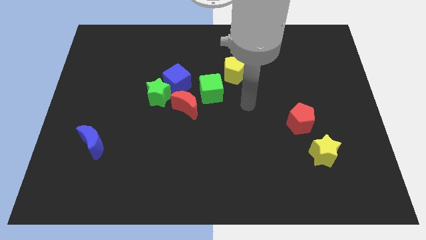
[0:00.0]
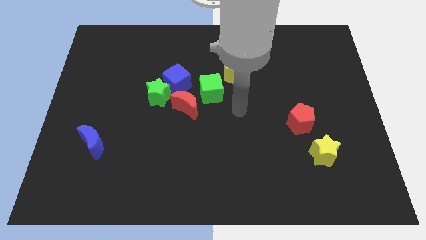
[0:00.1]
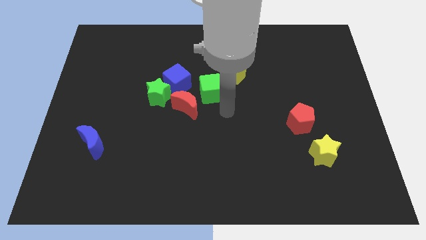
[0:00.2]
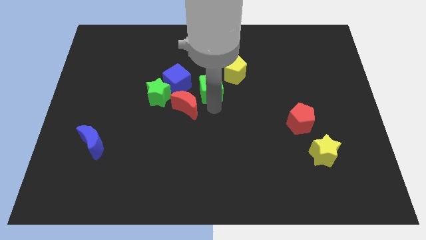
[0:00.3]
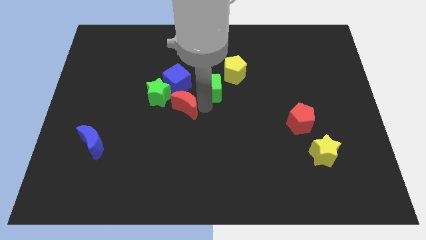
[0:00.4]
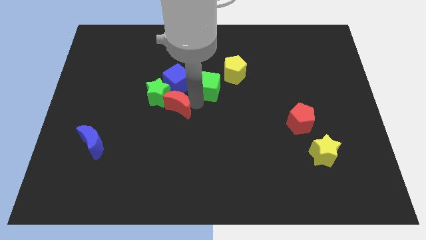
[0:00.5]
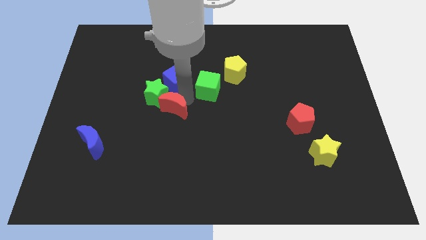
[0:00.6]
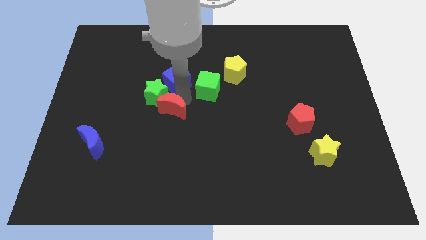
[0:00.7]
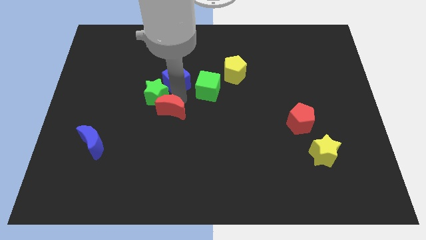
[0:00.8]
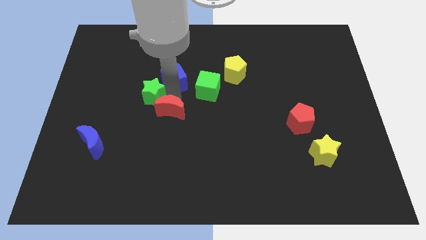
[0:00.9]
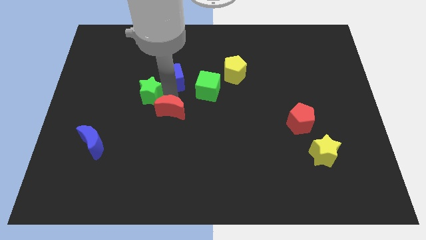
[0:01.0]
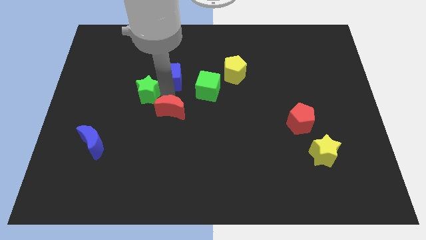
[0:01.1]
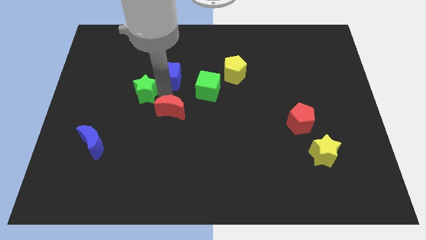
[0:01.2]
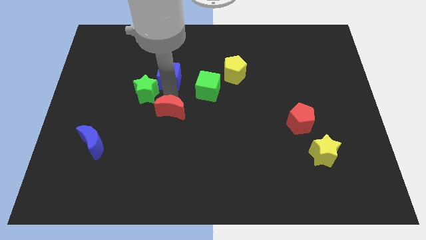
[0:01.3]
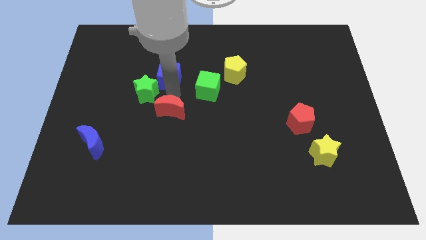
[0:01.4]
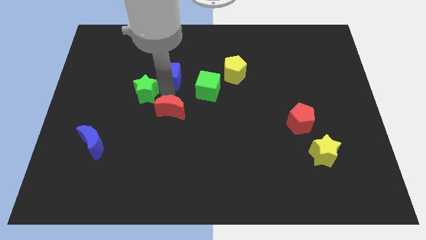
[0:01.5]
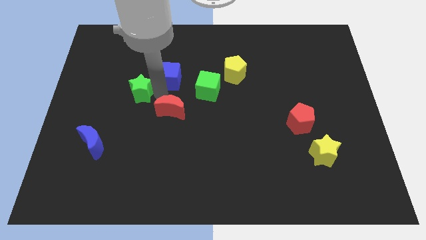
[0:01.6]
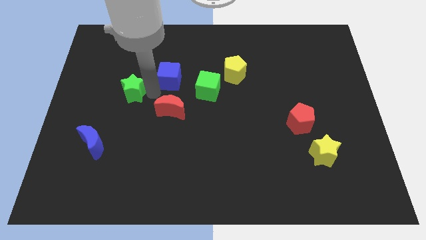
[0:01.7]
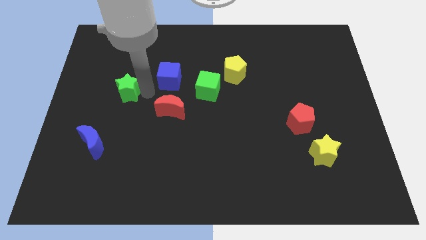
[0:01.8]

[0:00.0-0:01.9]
move the green star away from the blue cube and red moon

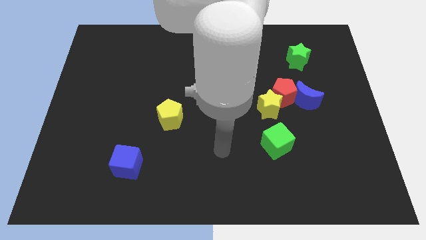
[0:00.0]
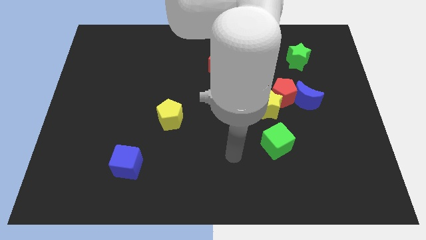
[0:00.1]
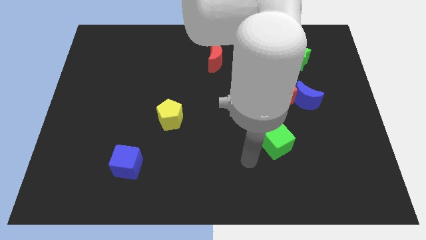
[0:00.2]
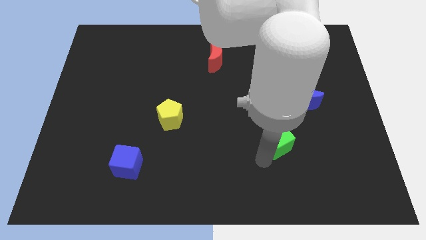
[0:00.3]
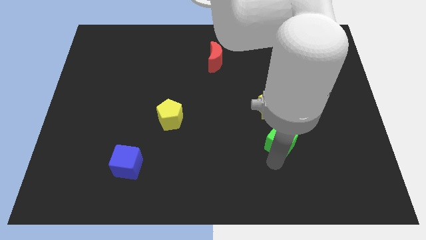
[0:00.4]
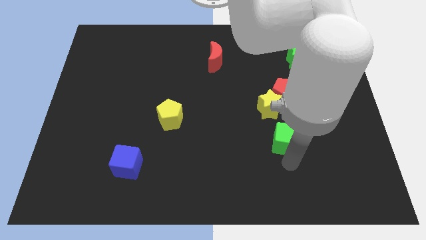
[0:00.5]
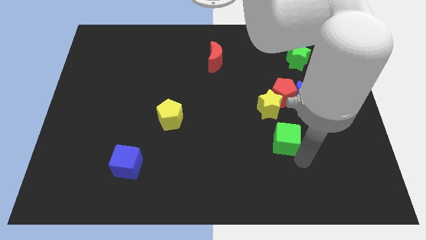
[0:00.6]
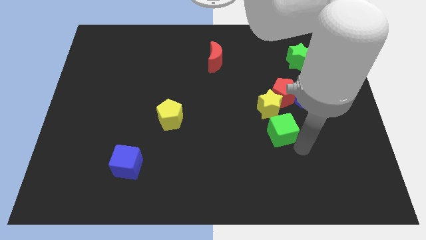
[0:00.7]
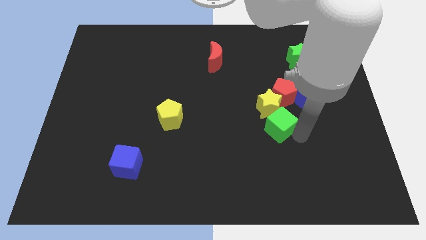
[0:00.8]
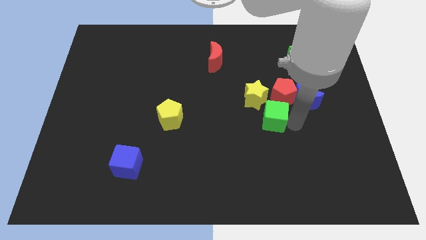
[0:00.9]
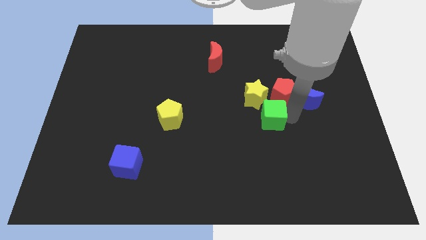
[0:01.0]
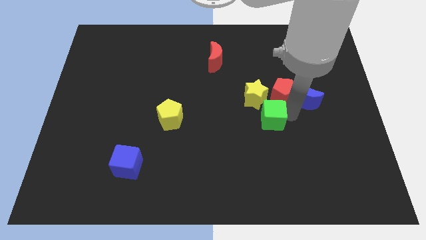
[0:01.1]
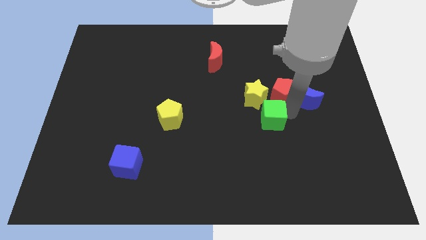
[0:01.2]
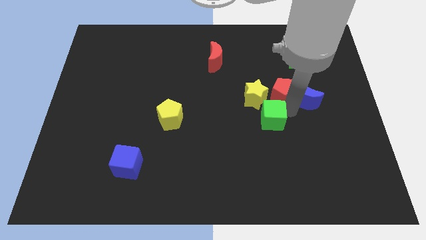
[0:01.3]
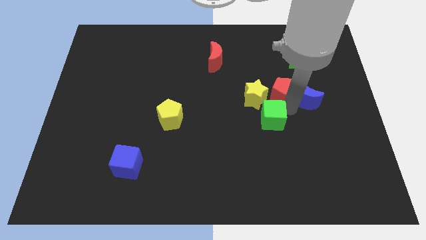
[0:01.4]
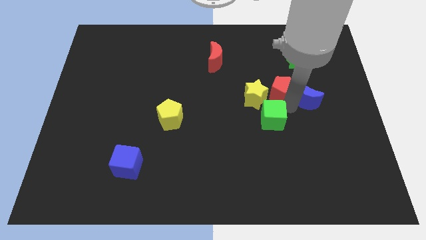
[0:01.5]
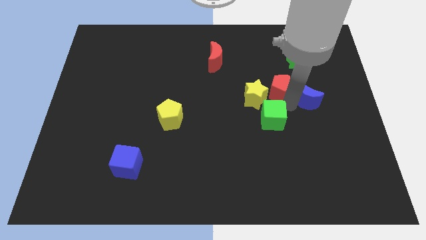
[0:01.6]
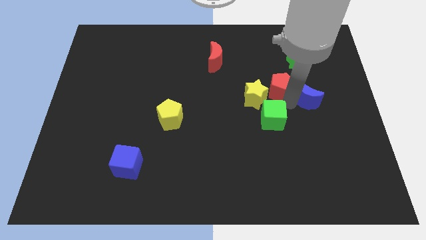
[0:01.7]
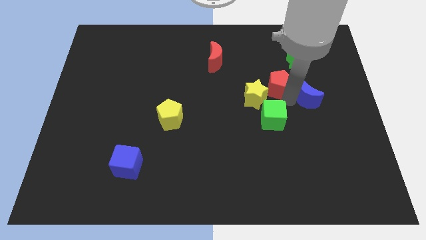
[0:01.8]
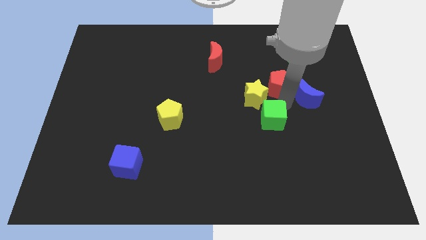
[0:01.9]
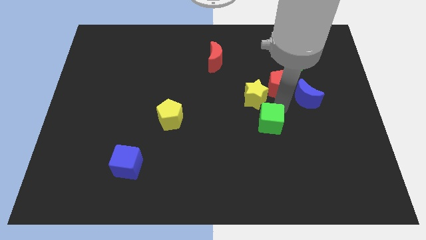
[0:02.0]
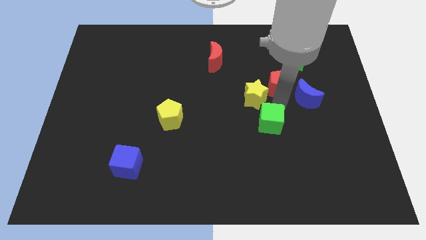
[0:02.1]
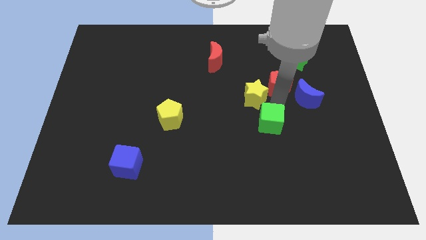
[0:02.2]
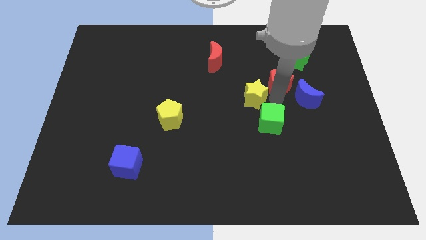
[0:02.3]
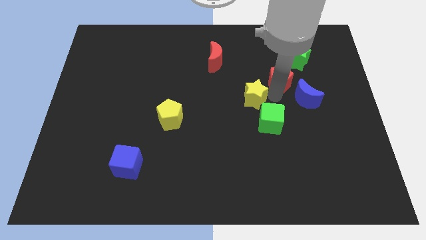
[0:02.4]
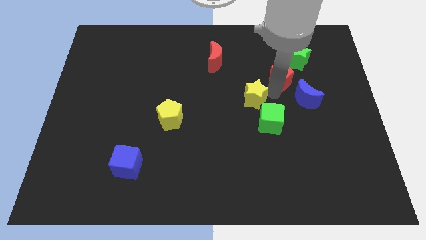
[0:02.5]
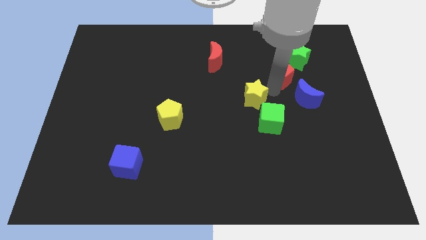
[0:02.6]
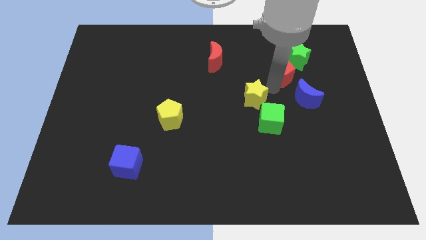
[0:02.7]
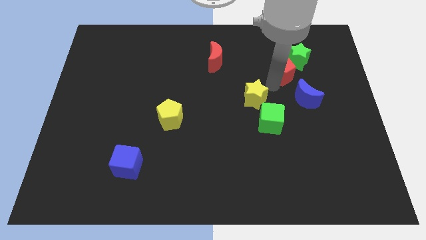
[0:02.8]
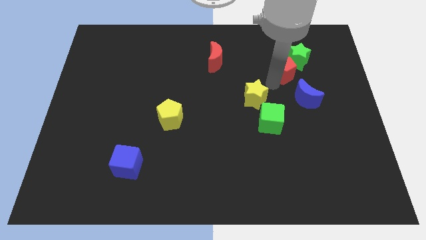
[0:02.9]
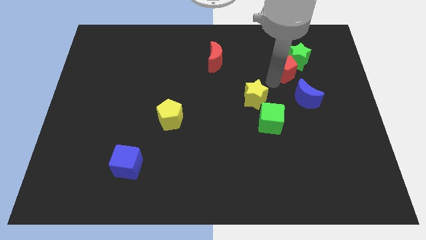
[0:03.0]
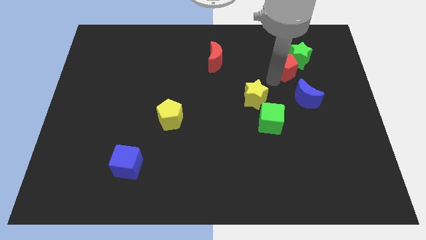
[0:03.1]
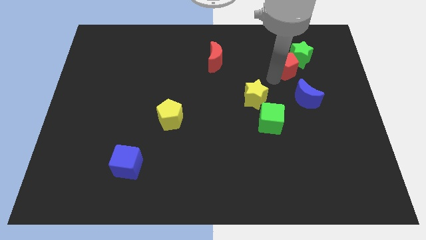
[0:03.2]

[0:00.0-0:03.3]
move the red pentagon away from the blue moon and yellow star

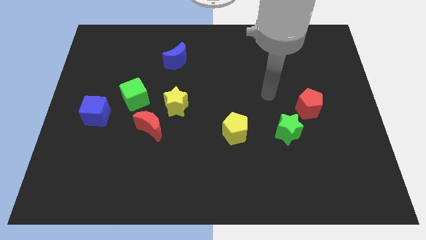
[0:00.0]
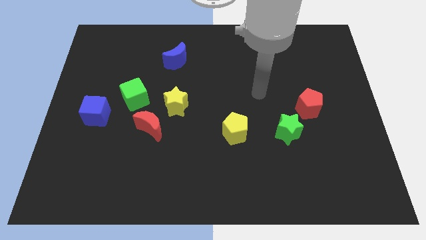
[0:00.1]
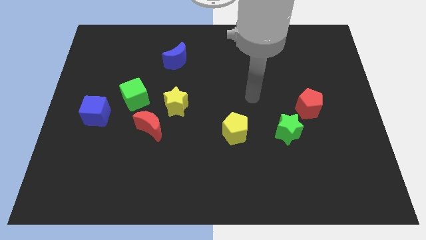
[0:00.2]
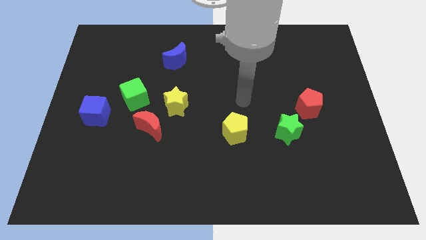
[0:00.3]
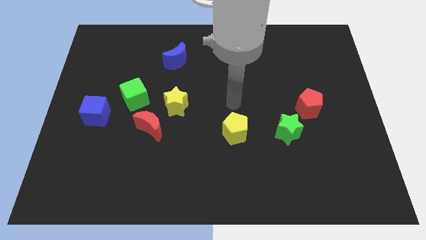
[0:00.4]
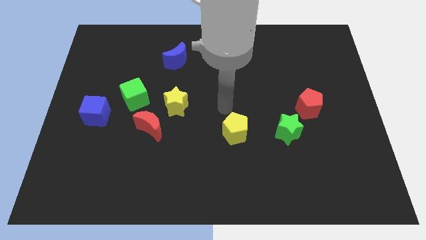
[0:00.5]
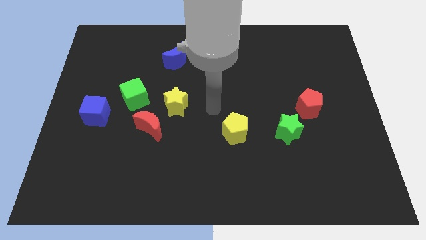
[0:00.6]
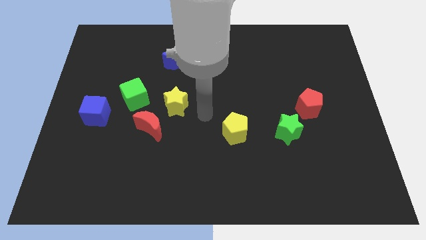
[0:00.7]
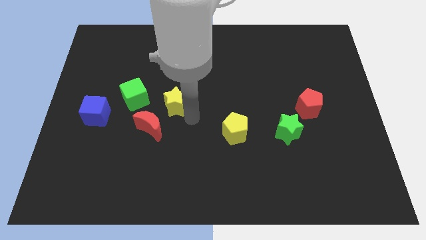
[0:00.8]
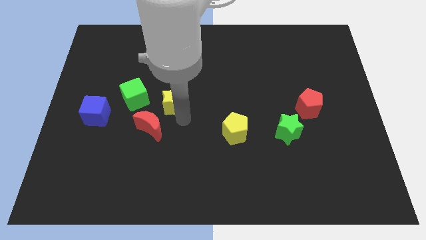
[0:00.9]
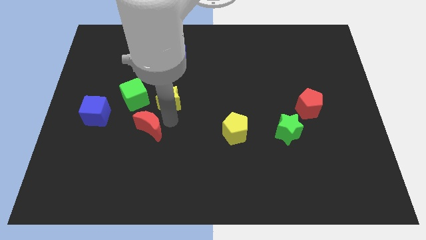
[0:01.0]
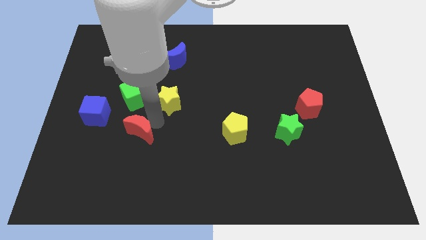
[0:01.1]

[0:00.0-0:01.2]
pull the yellow star apart from the red moon

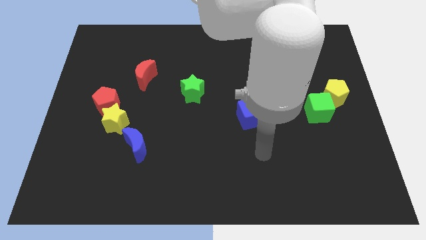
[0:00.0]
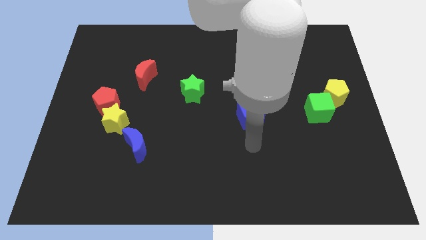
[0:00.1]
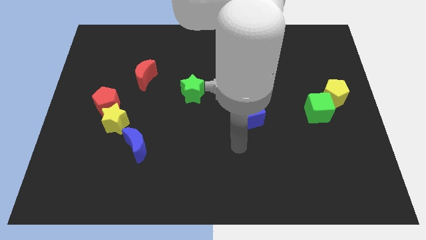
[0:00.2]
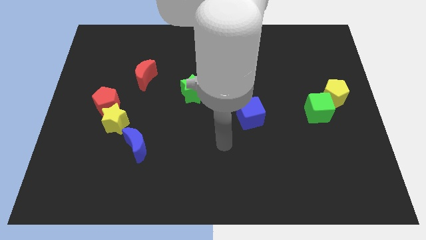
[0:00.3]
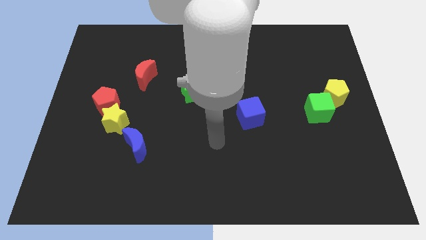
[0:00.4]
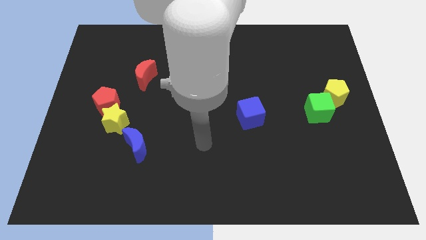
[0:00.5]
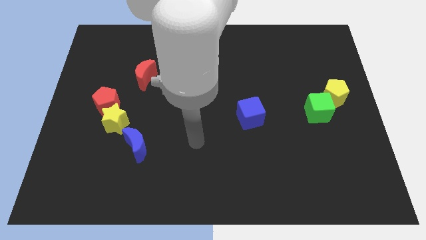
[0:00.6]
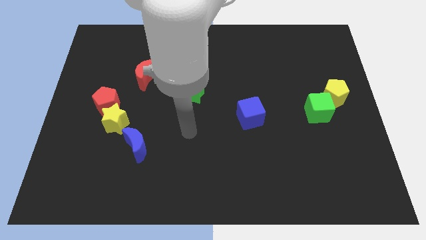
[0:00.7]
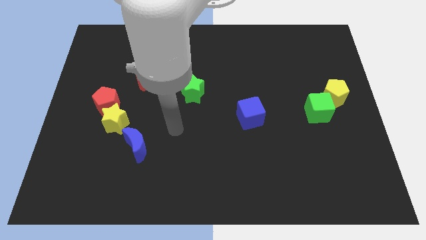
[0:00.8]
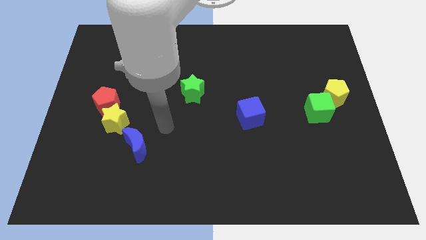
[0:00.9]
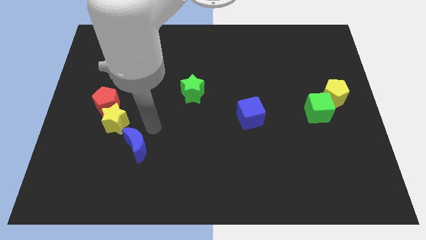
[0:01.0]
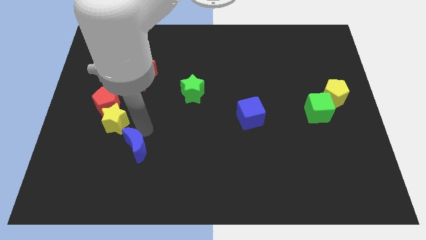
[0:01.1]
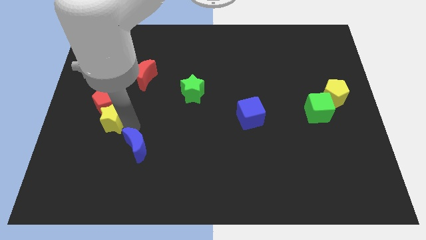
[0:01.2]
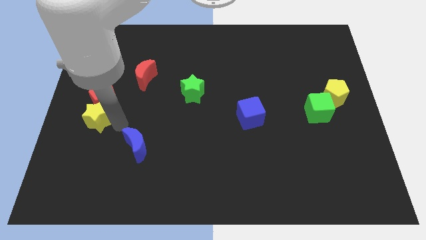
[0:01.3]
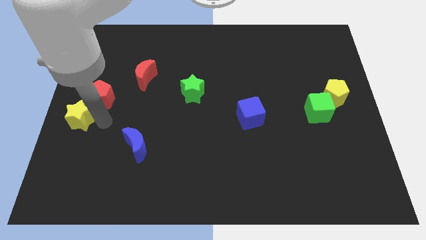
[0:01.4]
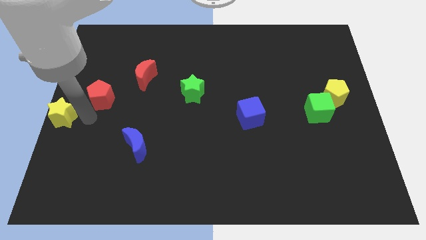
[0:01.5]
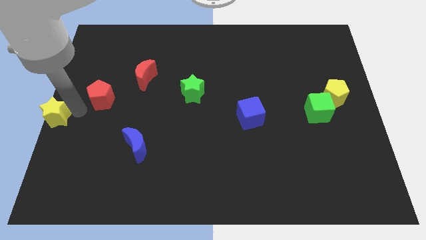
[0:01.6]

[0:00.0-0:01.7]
pull the red pentagon apart from the yellow star

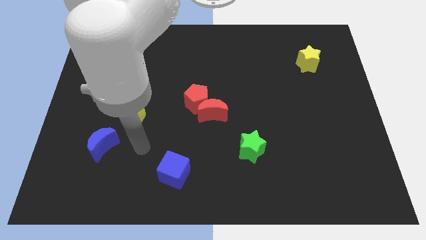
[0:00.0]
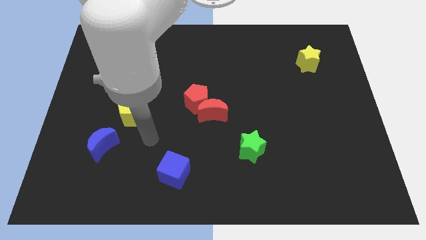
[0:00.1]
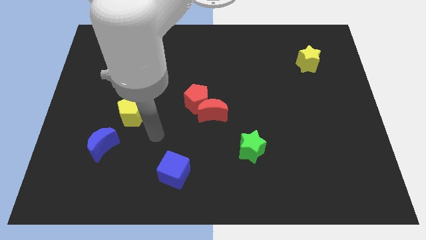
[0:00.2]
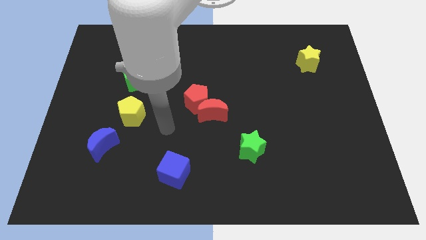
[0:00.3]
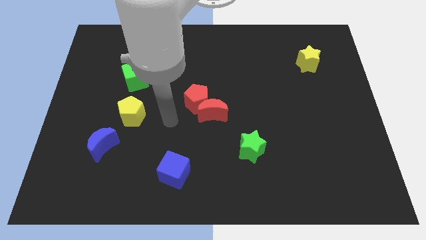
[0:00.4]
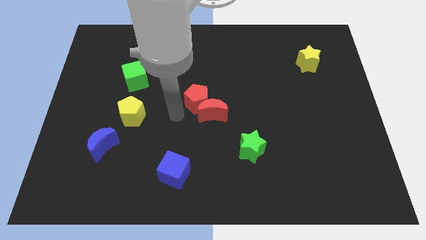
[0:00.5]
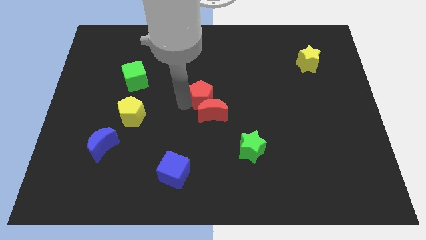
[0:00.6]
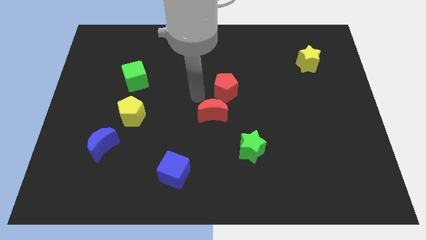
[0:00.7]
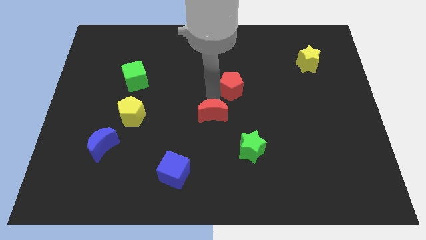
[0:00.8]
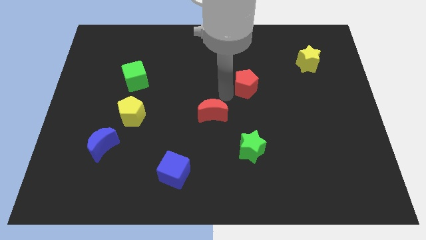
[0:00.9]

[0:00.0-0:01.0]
separate the red moon from the red pentagon

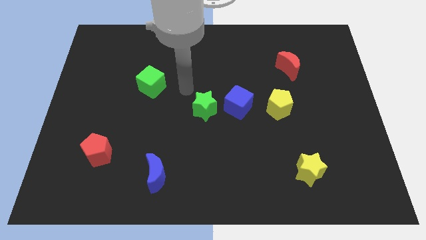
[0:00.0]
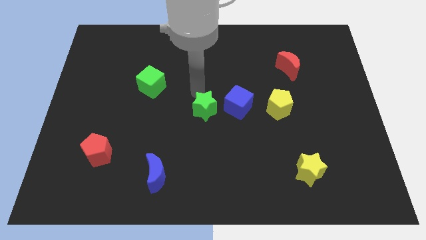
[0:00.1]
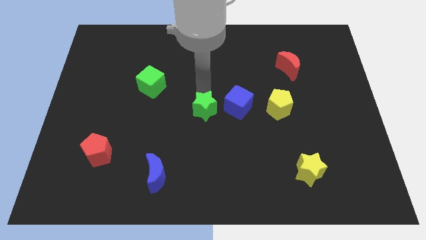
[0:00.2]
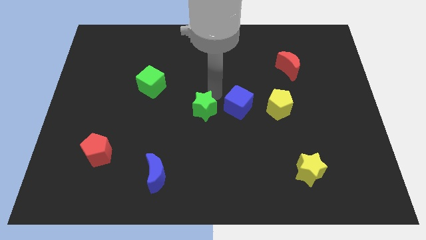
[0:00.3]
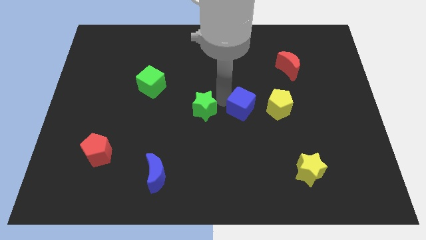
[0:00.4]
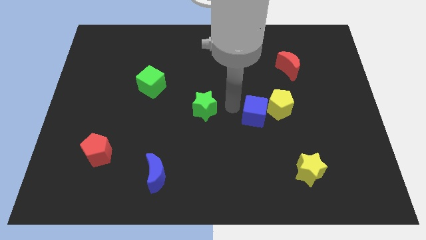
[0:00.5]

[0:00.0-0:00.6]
move the green star away from the blue cube
